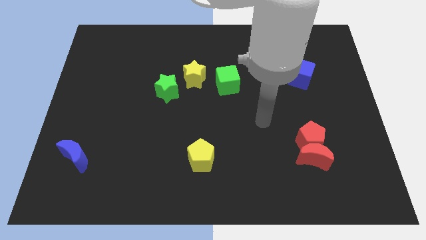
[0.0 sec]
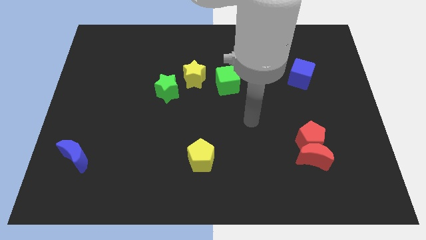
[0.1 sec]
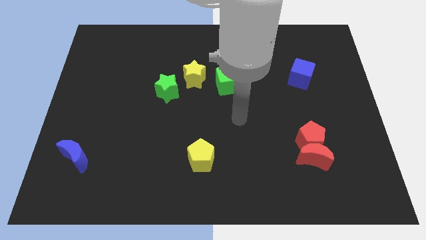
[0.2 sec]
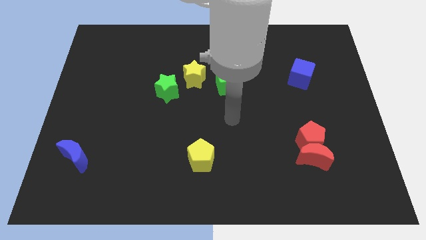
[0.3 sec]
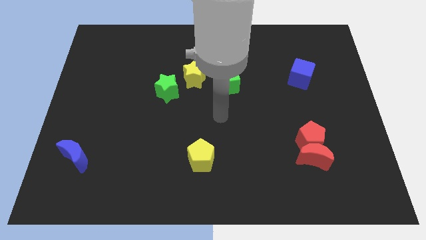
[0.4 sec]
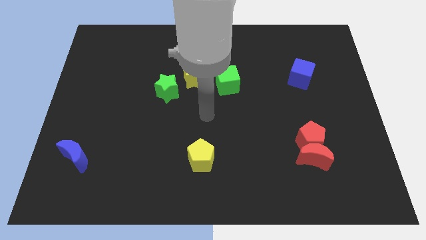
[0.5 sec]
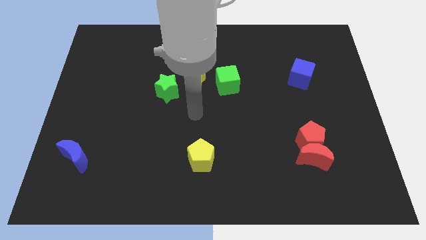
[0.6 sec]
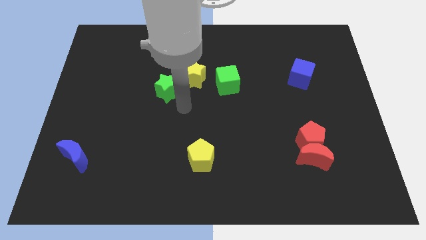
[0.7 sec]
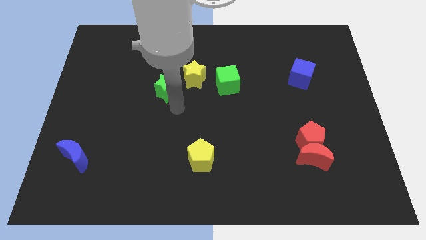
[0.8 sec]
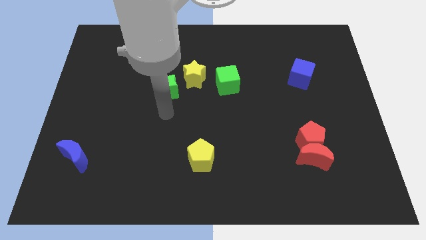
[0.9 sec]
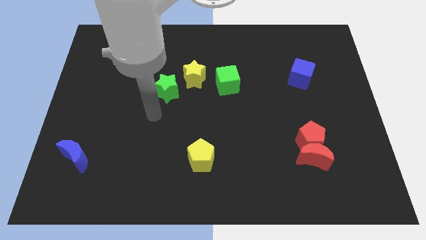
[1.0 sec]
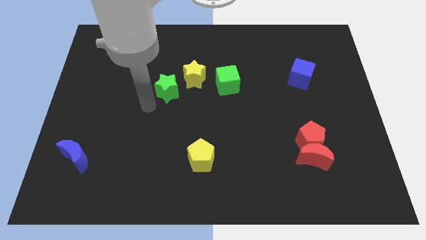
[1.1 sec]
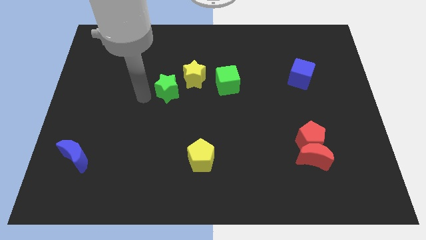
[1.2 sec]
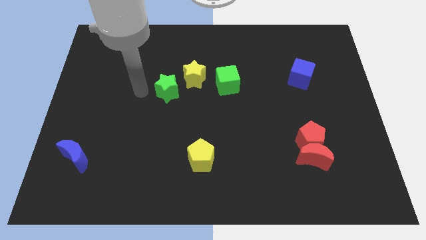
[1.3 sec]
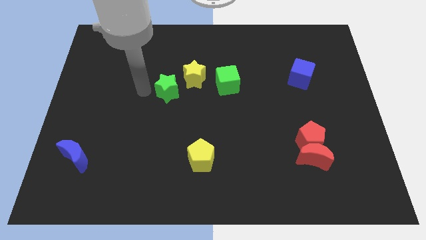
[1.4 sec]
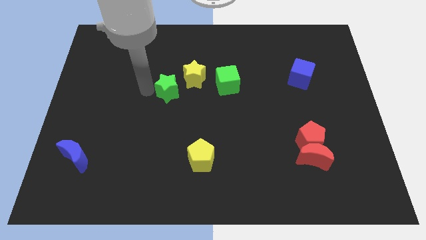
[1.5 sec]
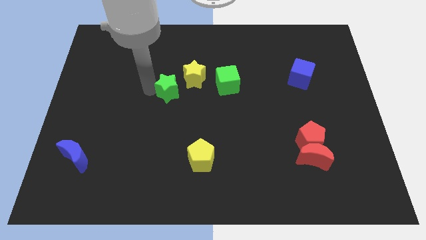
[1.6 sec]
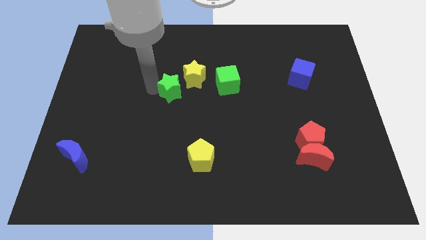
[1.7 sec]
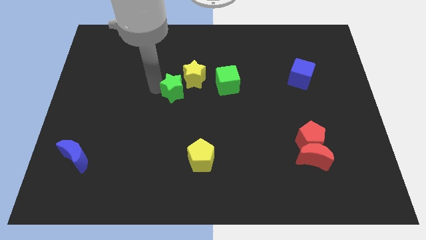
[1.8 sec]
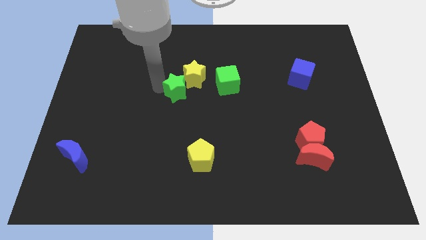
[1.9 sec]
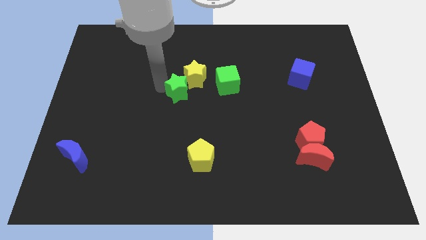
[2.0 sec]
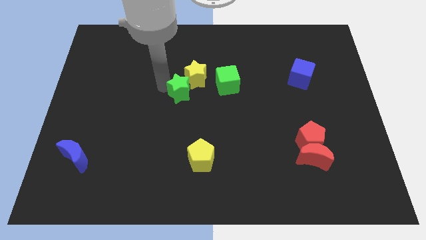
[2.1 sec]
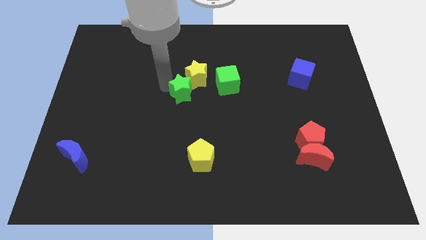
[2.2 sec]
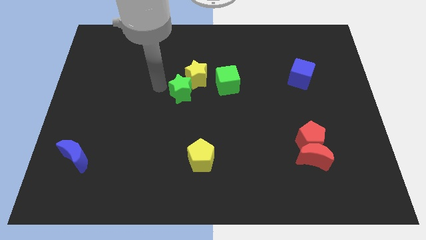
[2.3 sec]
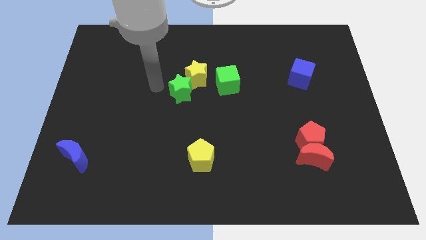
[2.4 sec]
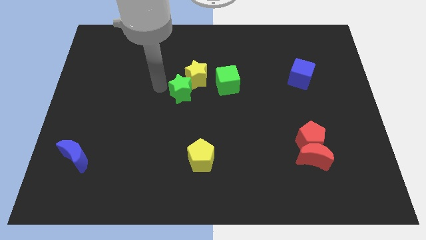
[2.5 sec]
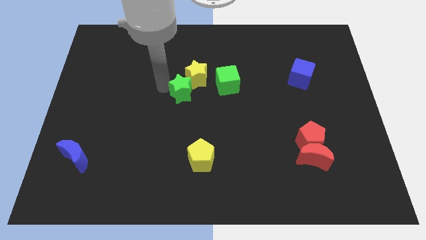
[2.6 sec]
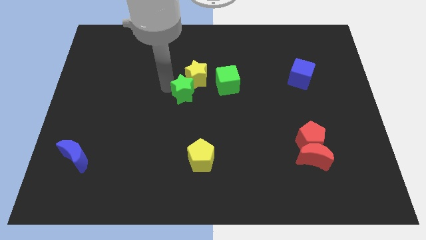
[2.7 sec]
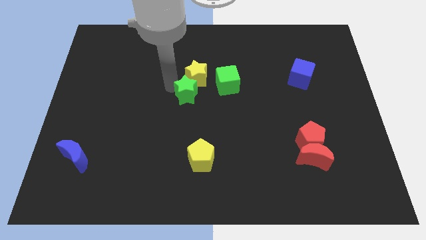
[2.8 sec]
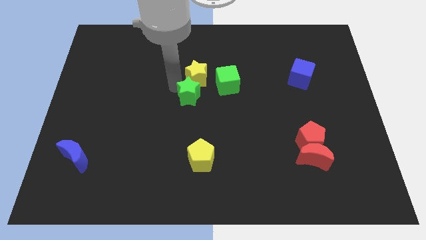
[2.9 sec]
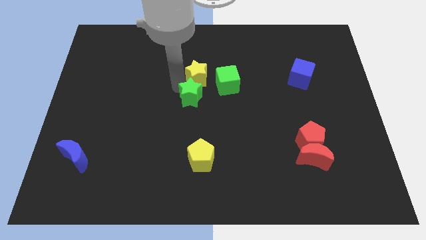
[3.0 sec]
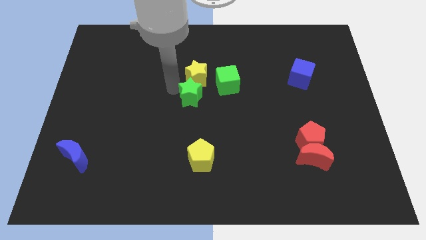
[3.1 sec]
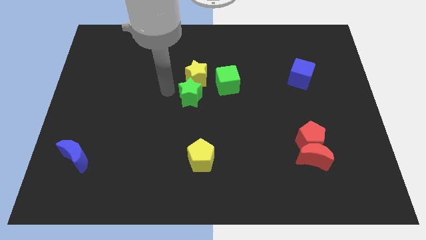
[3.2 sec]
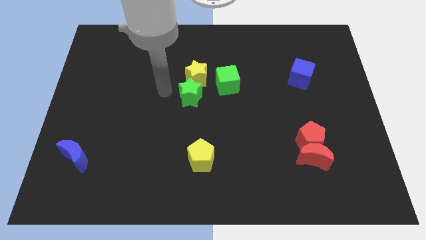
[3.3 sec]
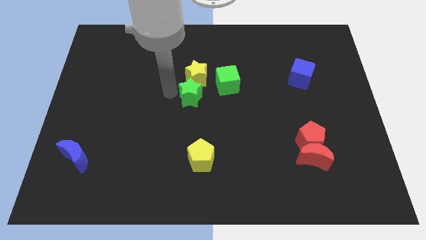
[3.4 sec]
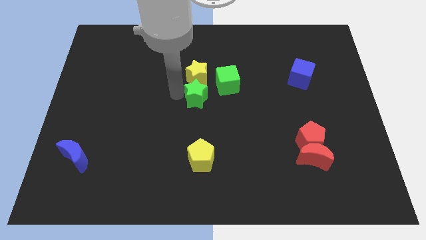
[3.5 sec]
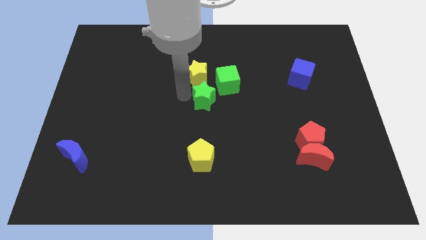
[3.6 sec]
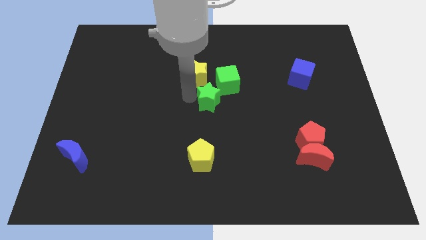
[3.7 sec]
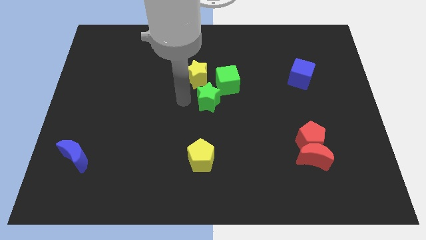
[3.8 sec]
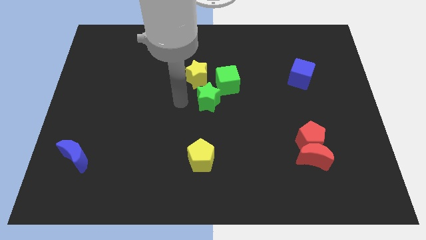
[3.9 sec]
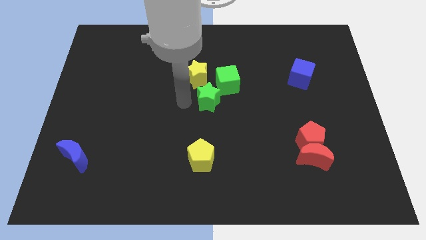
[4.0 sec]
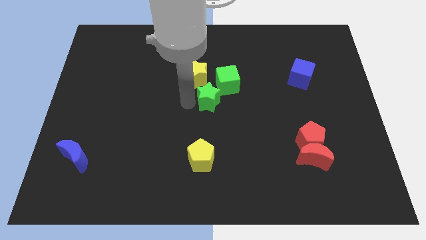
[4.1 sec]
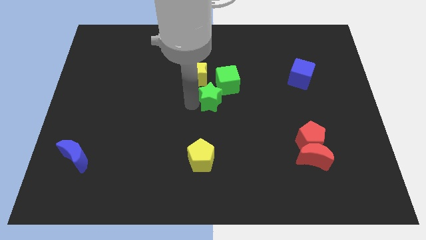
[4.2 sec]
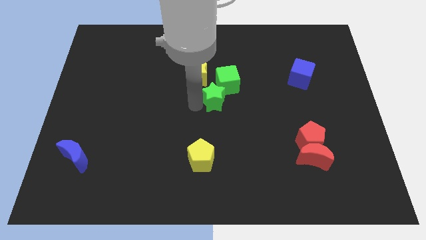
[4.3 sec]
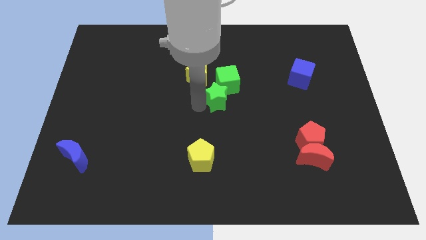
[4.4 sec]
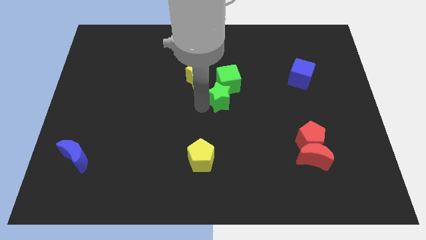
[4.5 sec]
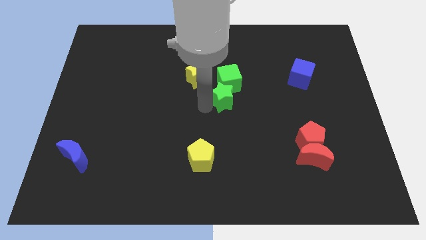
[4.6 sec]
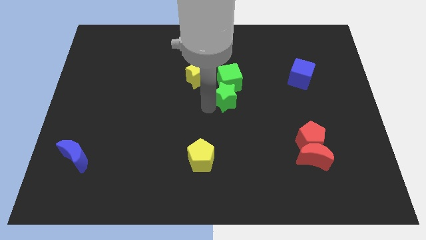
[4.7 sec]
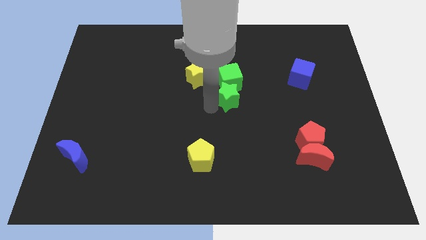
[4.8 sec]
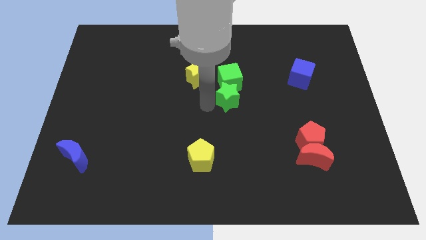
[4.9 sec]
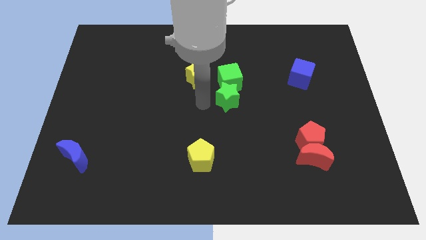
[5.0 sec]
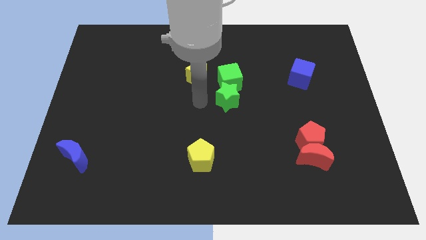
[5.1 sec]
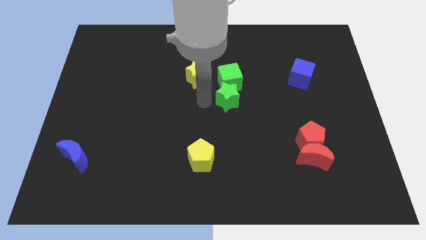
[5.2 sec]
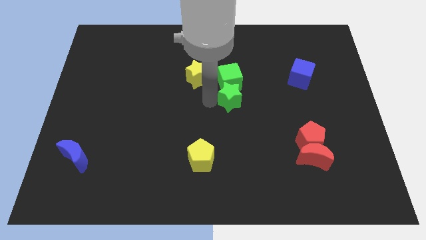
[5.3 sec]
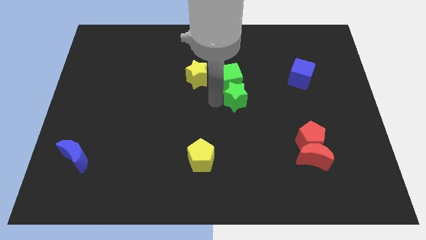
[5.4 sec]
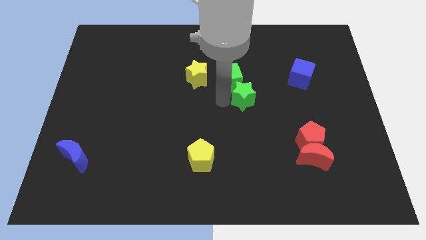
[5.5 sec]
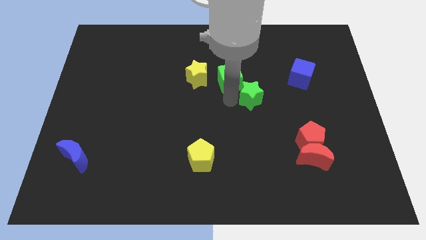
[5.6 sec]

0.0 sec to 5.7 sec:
slide the green star to the right

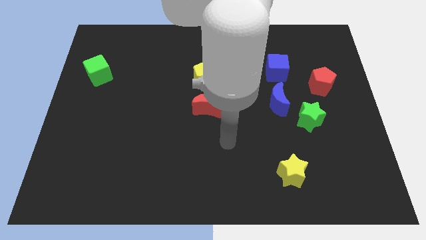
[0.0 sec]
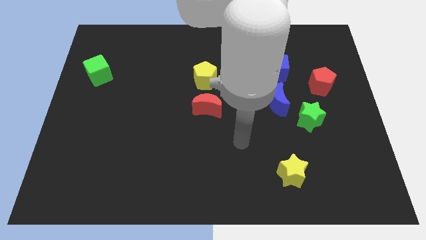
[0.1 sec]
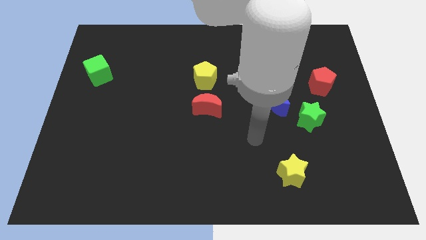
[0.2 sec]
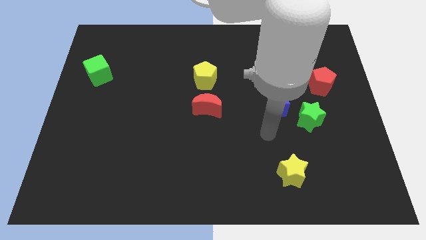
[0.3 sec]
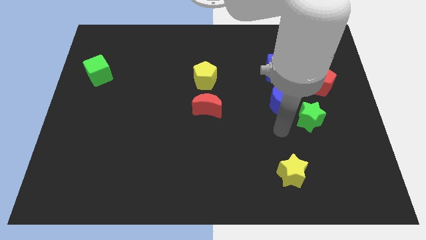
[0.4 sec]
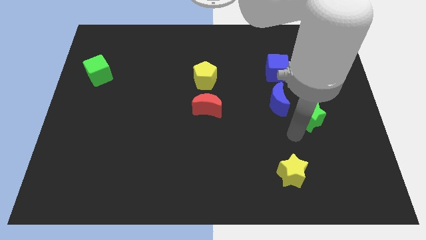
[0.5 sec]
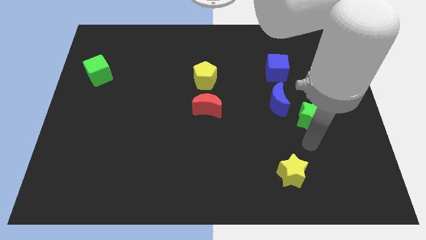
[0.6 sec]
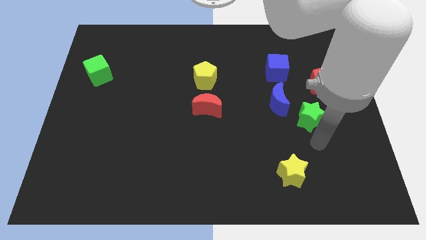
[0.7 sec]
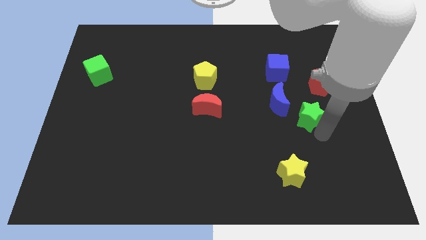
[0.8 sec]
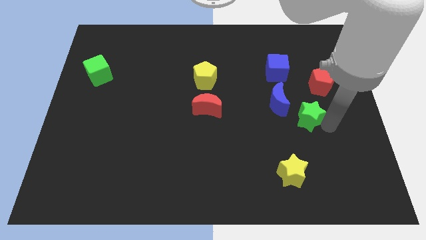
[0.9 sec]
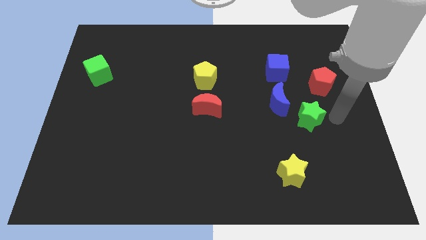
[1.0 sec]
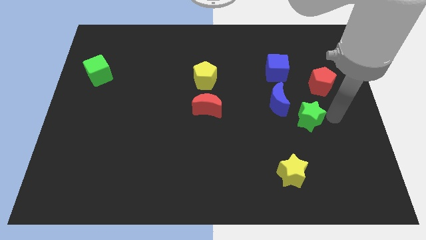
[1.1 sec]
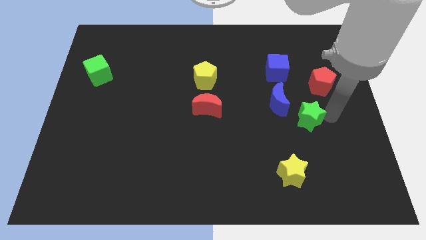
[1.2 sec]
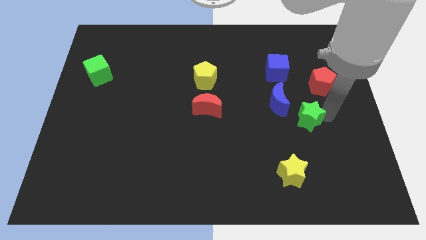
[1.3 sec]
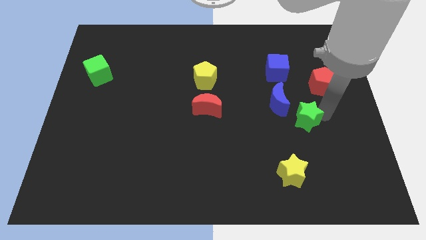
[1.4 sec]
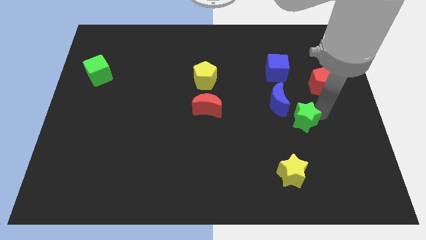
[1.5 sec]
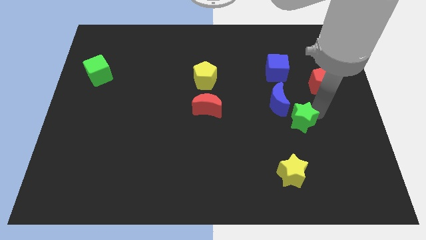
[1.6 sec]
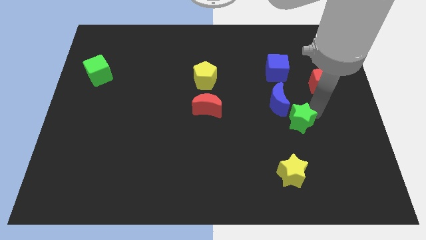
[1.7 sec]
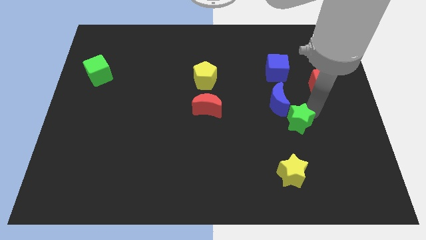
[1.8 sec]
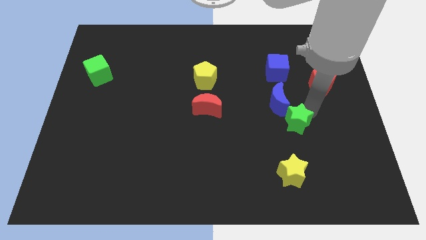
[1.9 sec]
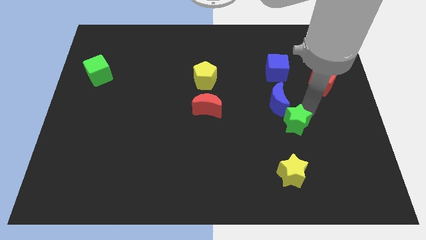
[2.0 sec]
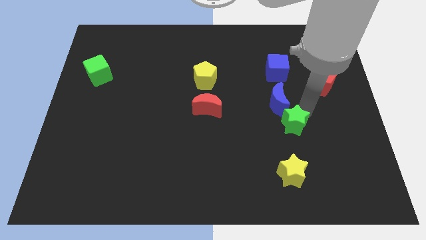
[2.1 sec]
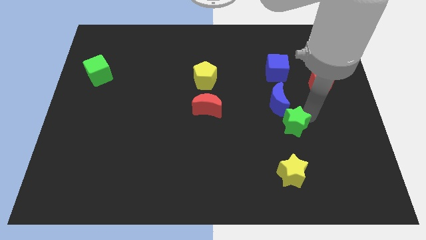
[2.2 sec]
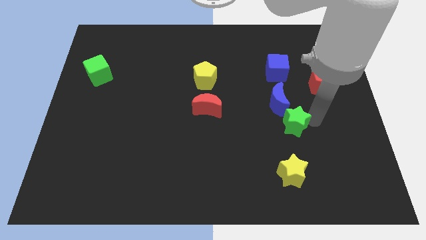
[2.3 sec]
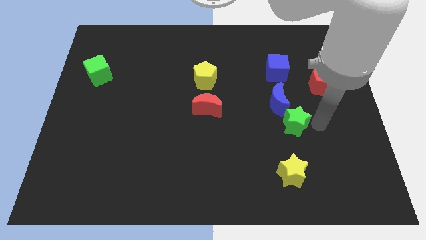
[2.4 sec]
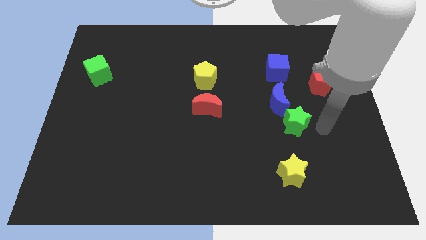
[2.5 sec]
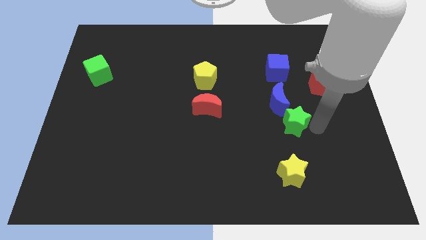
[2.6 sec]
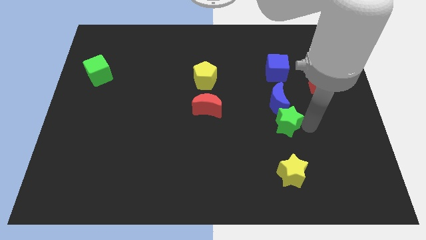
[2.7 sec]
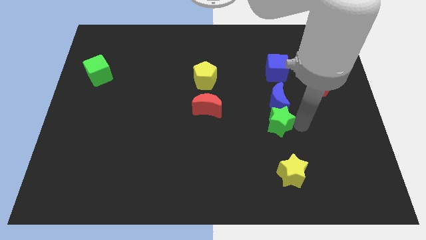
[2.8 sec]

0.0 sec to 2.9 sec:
push the green star somewhat to the left
